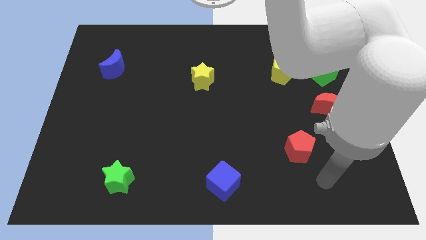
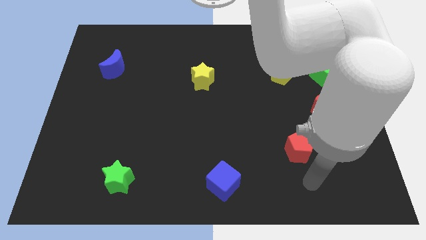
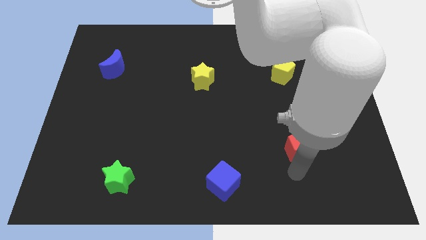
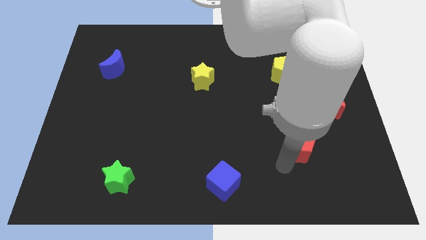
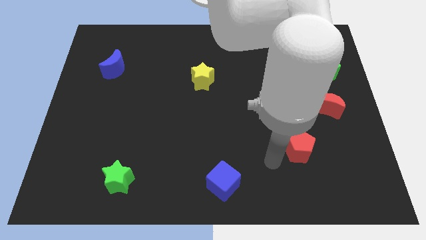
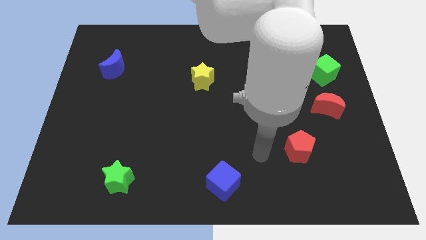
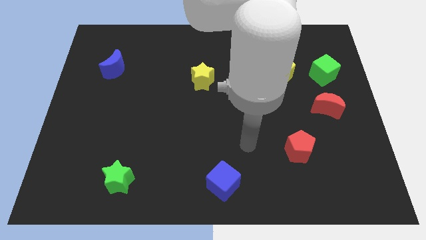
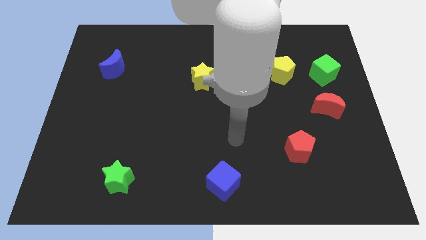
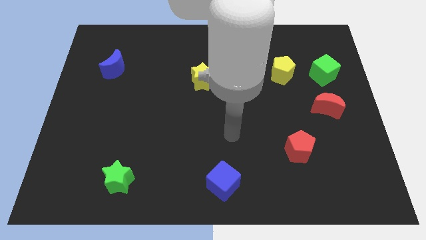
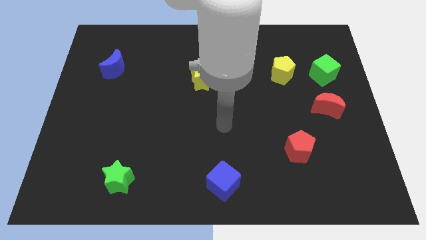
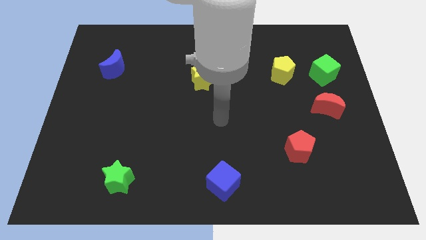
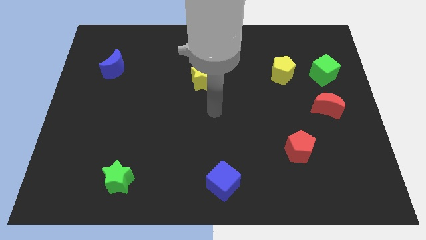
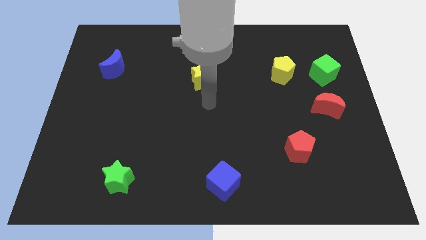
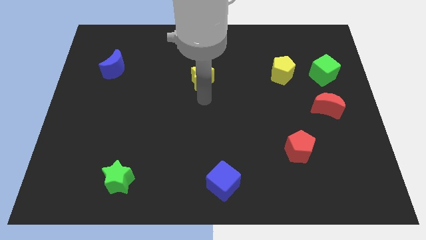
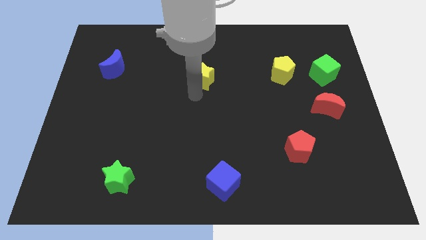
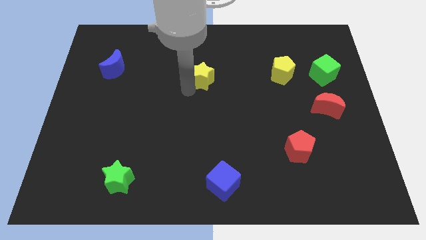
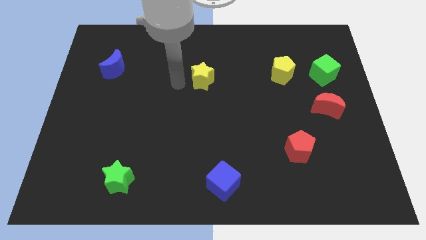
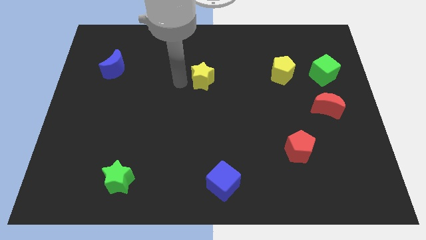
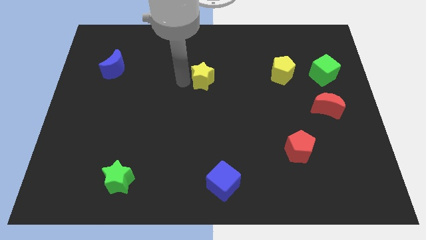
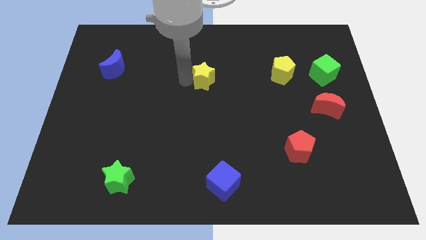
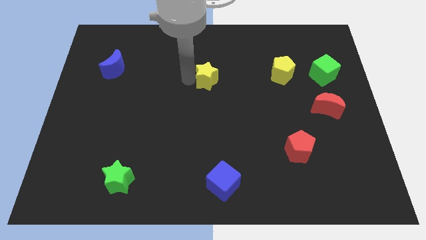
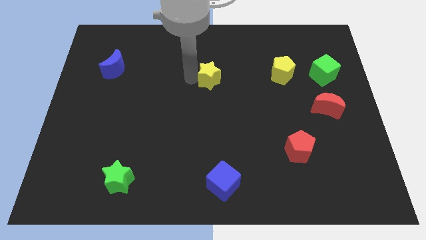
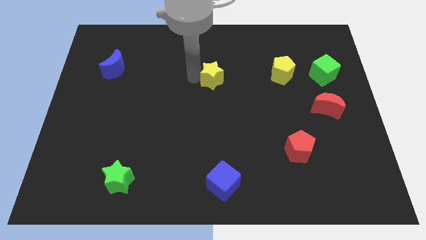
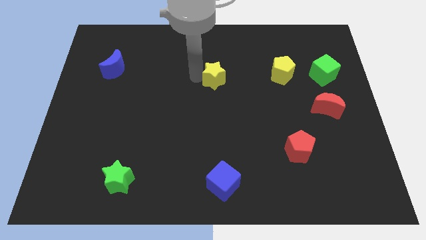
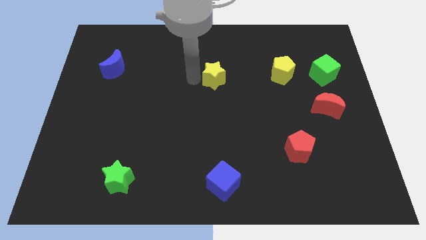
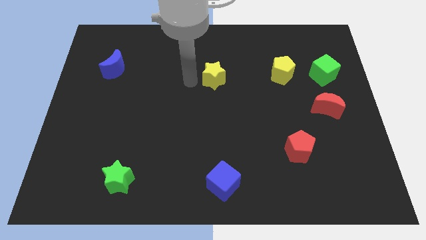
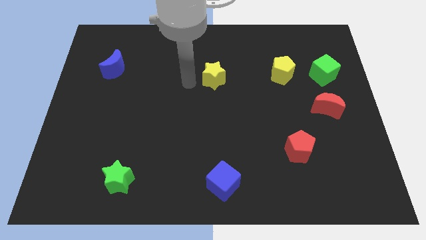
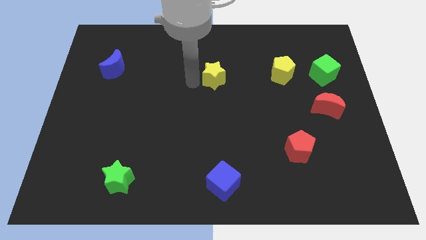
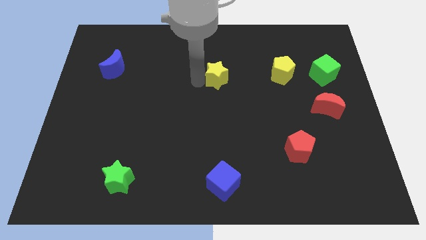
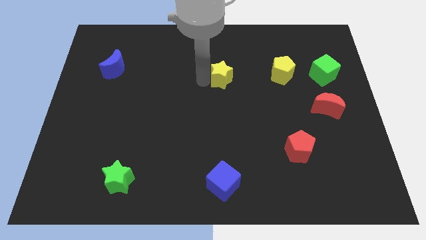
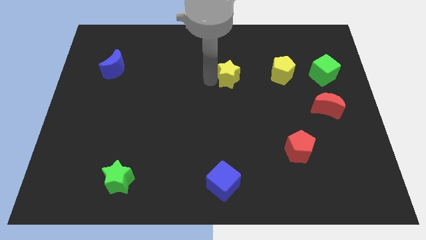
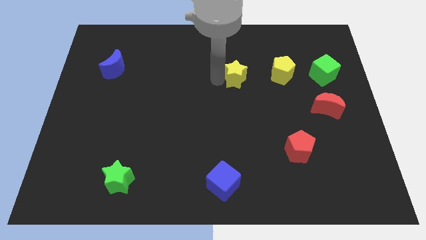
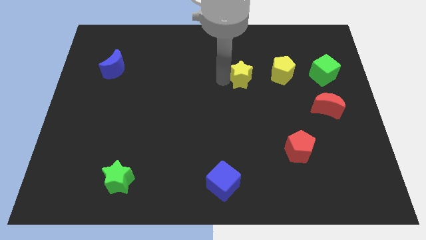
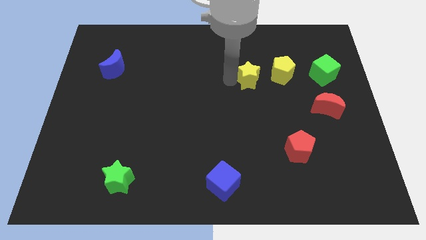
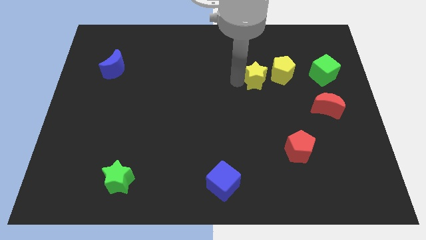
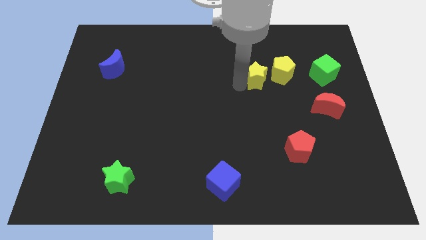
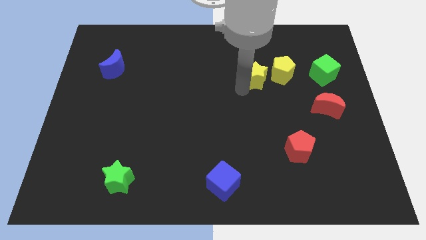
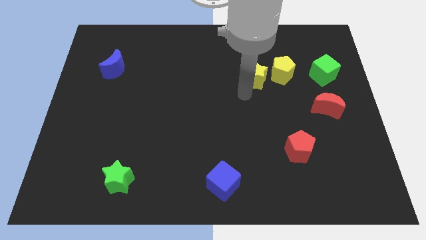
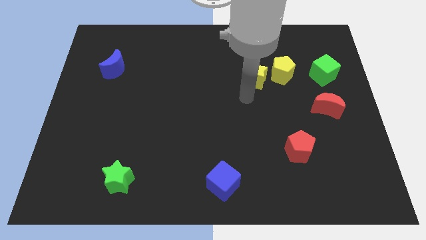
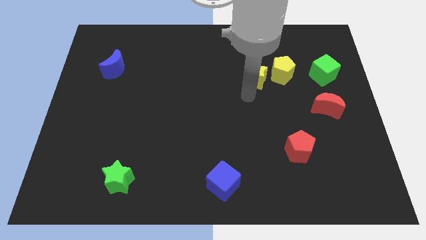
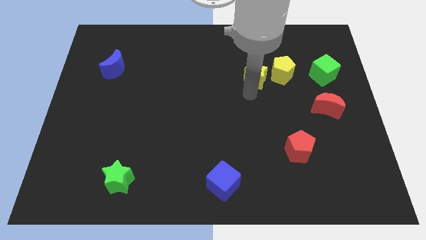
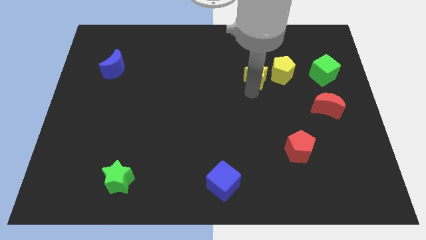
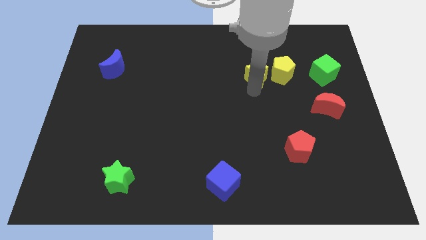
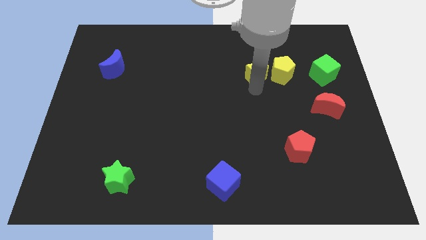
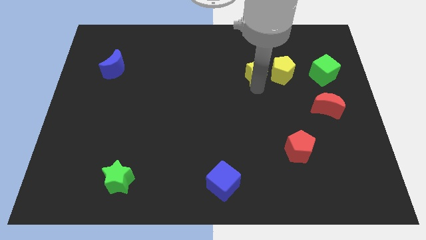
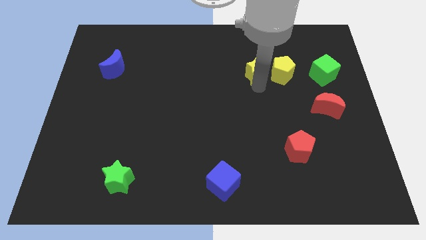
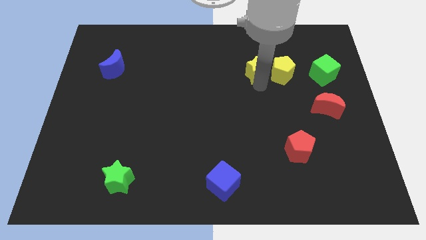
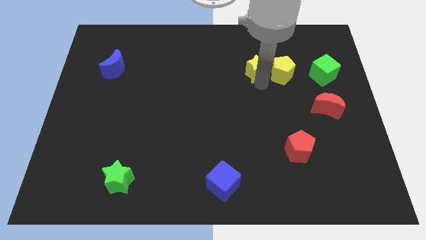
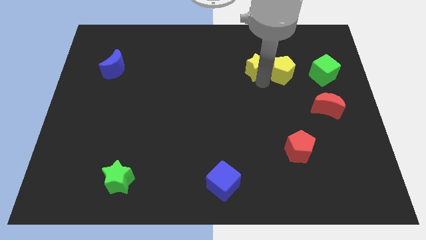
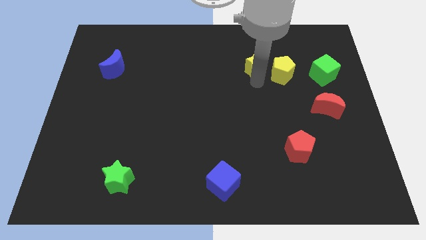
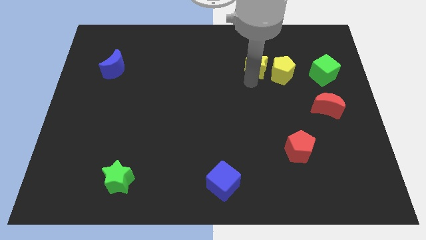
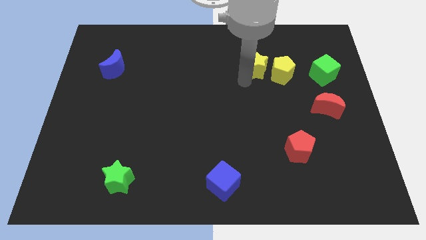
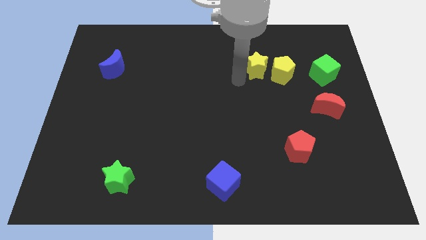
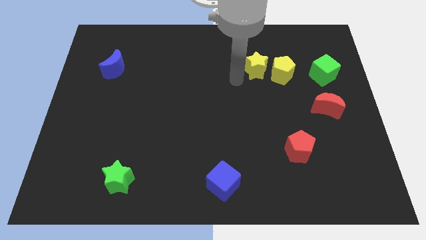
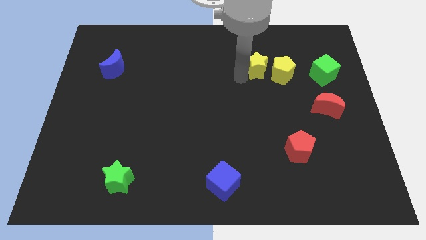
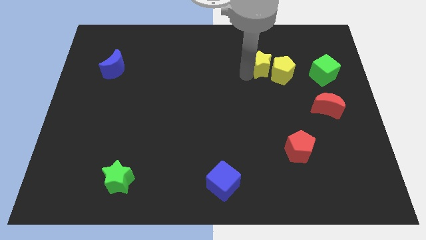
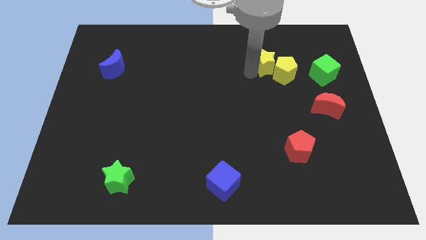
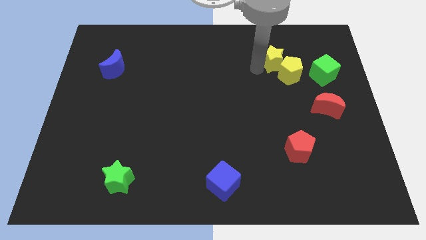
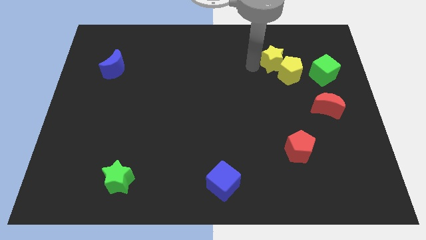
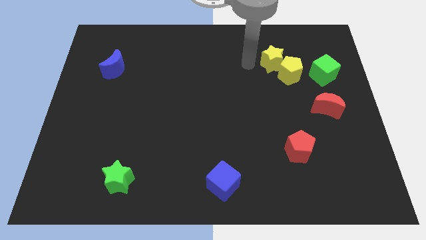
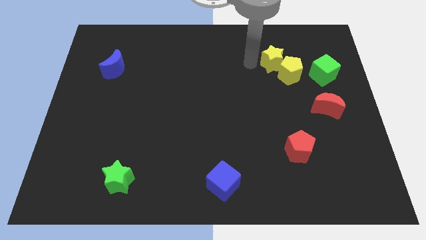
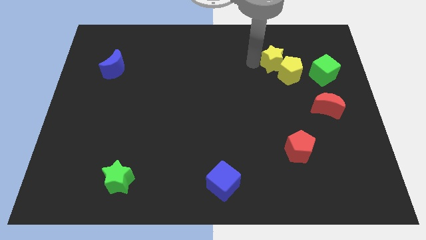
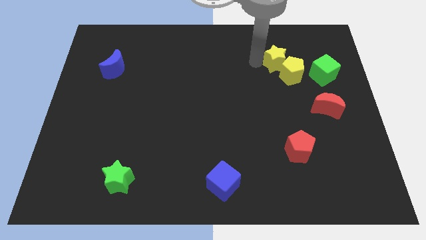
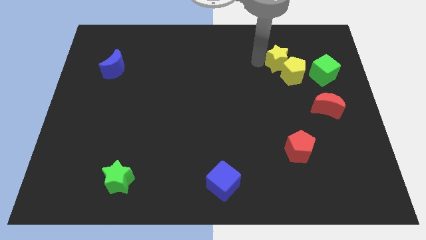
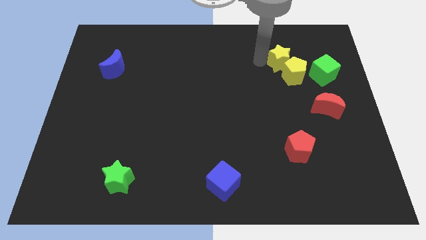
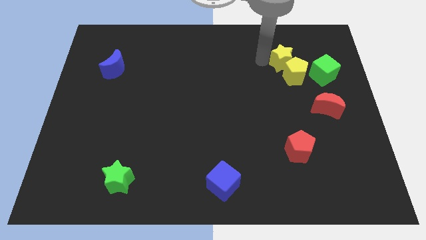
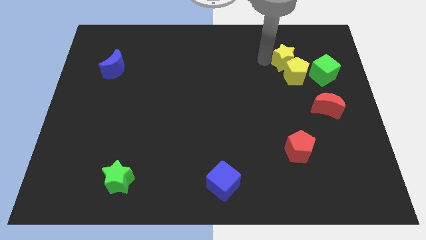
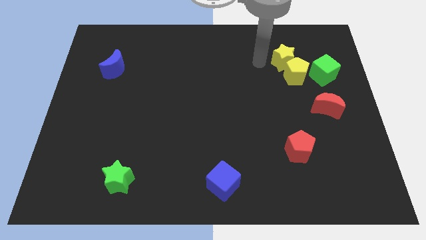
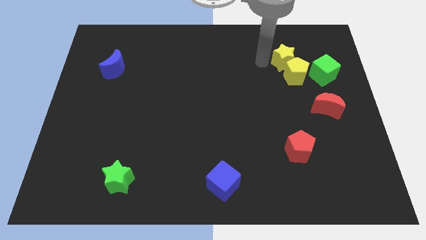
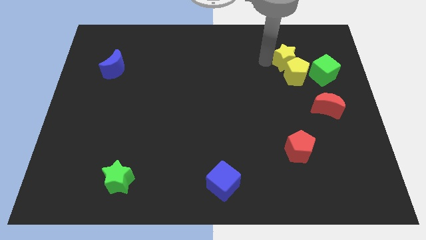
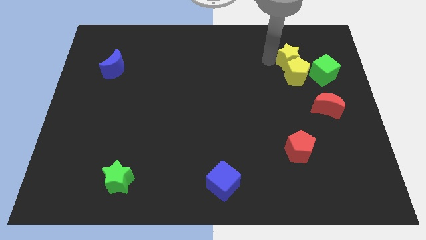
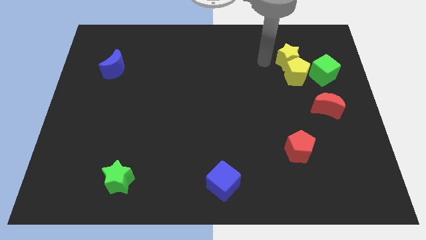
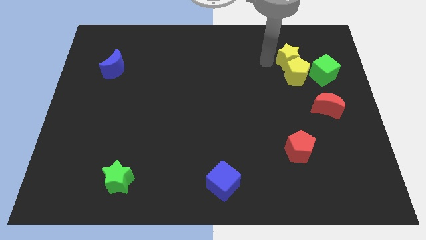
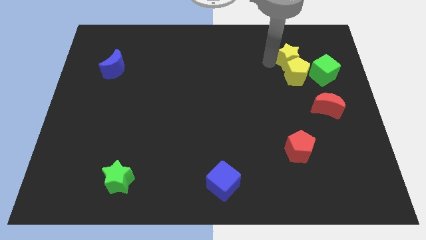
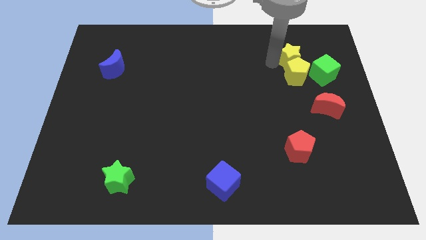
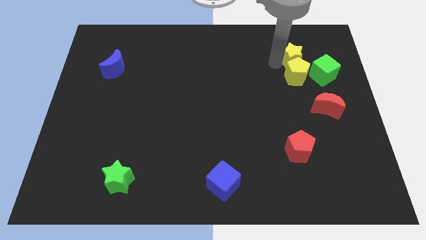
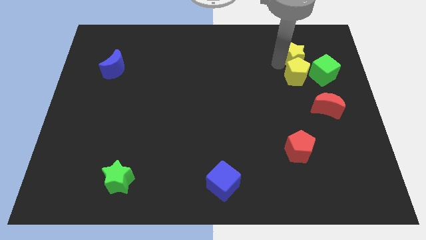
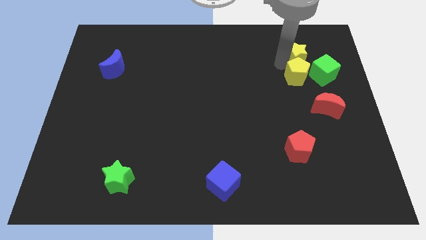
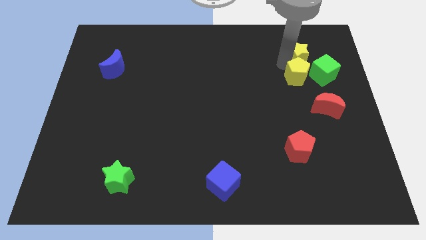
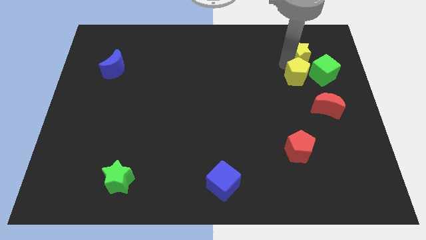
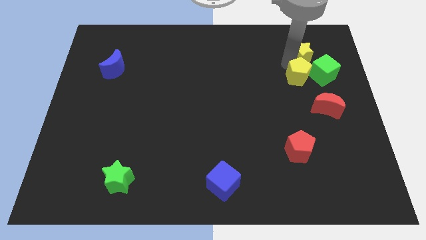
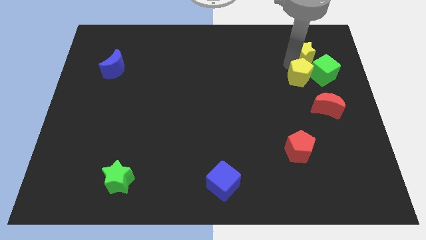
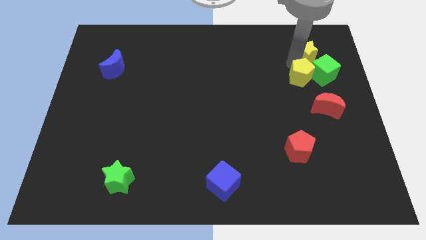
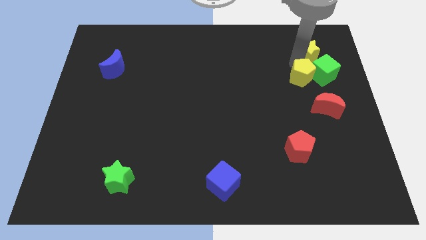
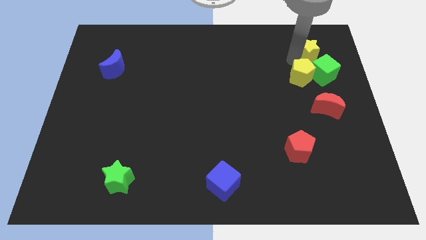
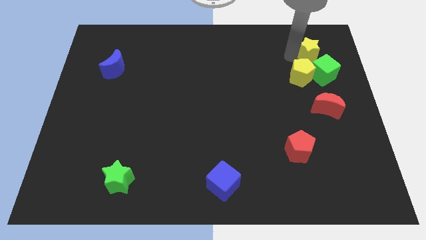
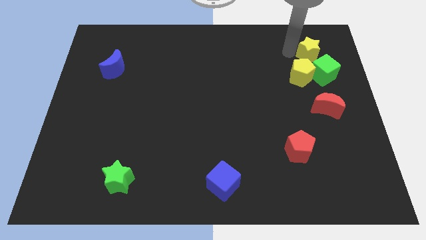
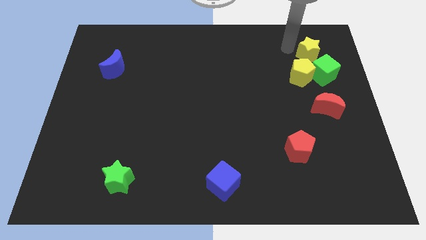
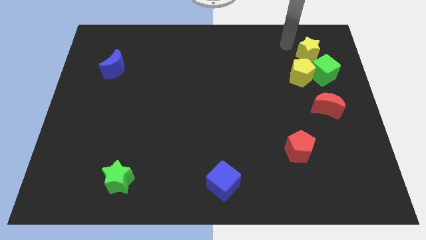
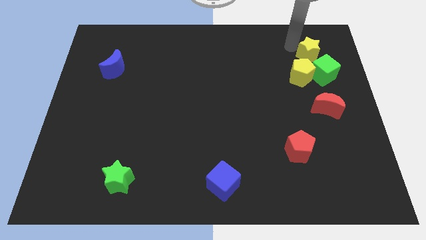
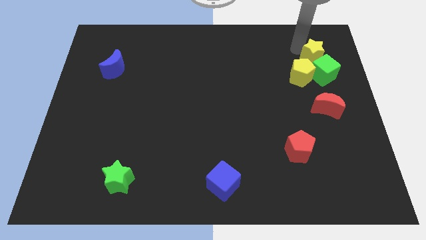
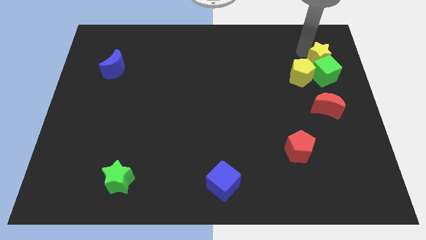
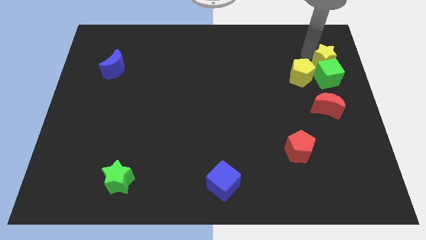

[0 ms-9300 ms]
push the yellow star just right of the yellow pentagon
